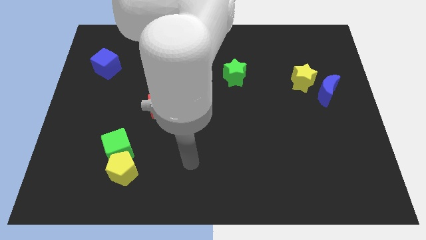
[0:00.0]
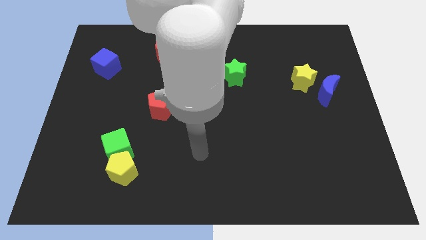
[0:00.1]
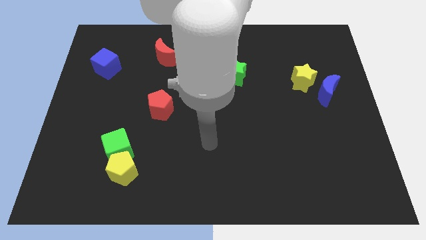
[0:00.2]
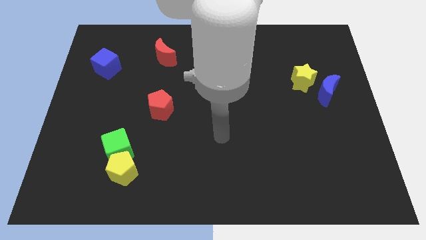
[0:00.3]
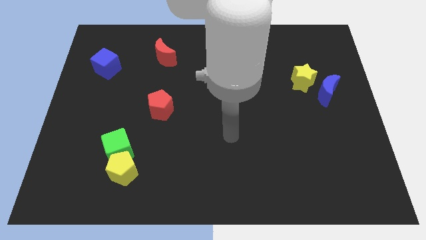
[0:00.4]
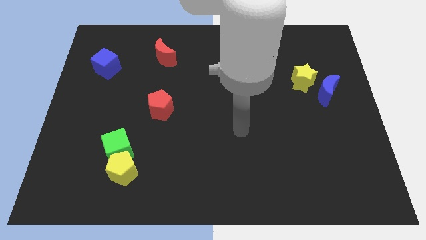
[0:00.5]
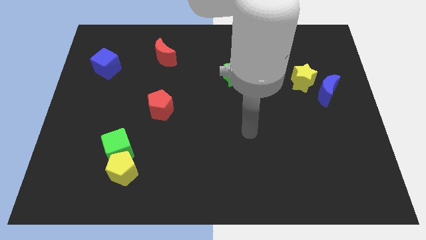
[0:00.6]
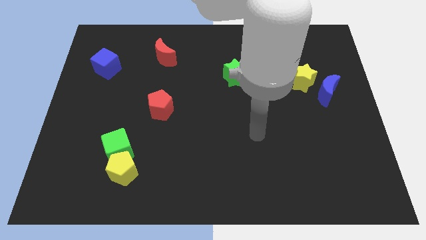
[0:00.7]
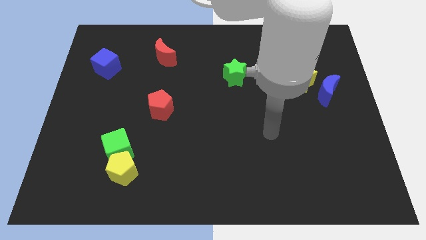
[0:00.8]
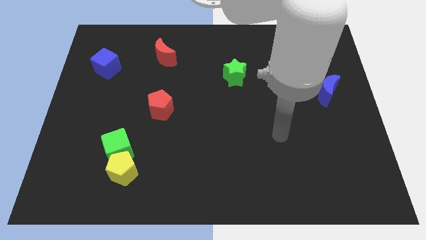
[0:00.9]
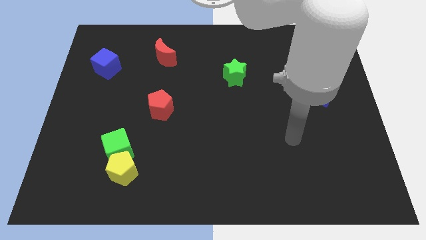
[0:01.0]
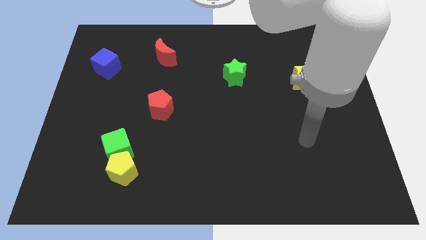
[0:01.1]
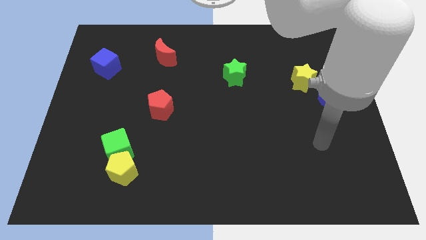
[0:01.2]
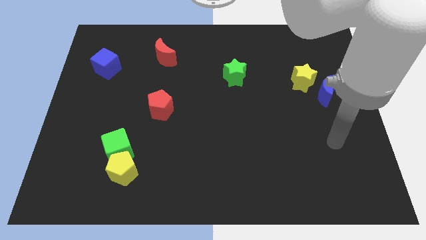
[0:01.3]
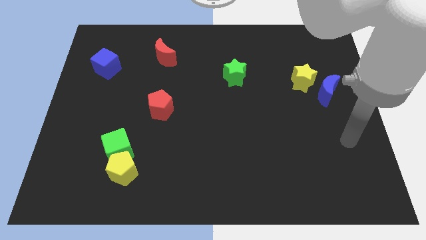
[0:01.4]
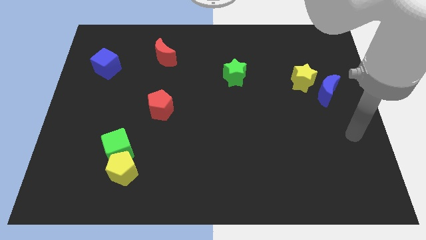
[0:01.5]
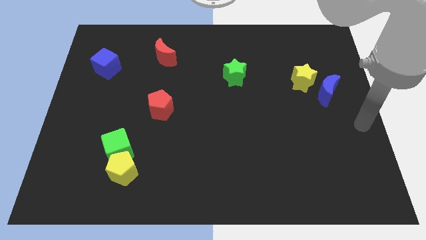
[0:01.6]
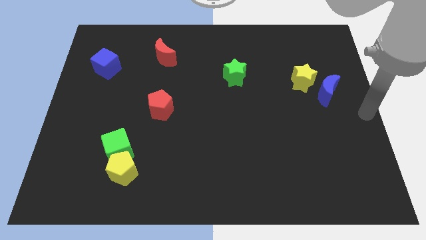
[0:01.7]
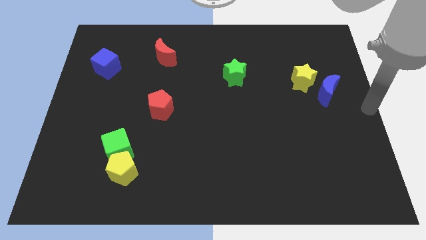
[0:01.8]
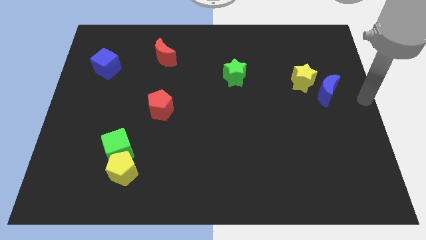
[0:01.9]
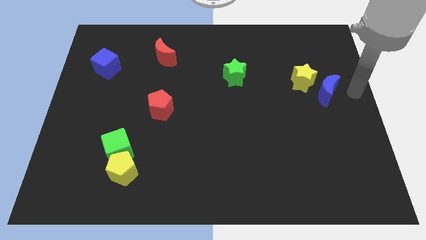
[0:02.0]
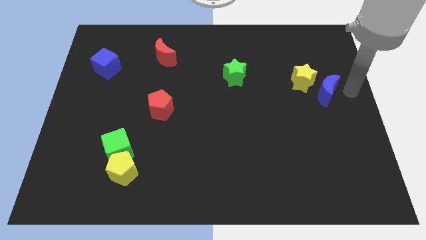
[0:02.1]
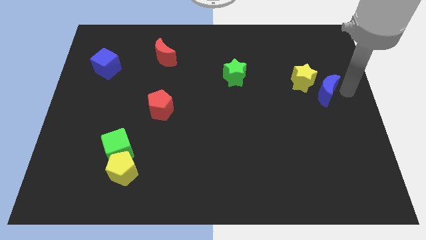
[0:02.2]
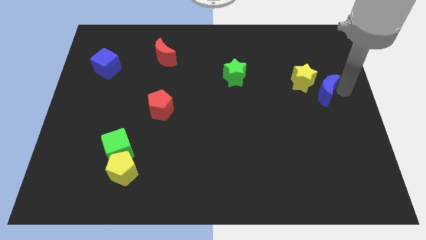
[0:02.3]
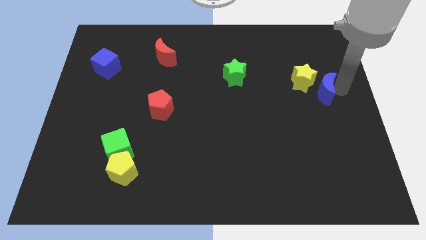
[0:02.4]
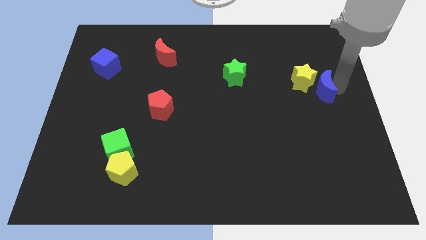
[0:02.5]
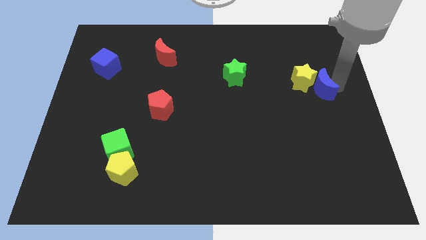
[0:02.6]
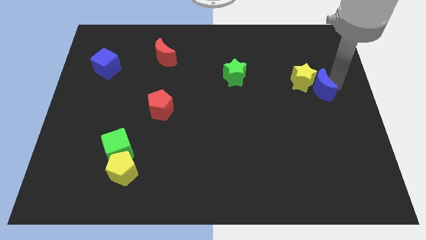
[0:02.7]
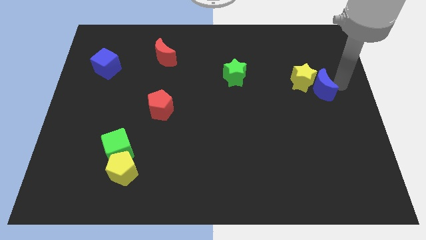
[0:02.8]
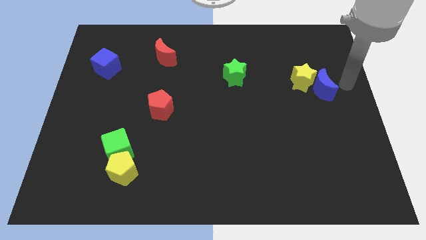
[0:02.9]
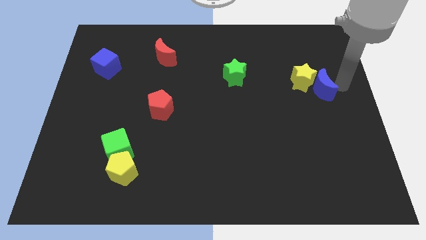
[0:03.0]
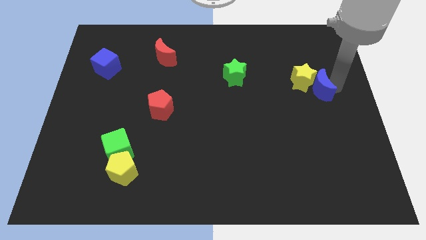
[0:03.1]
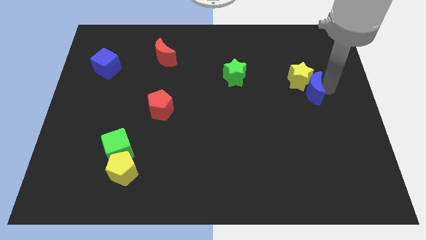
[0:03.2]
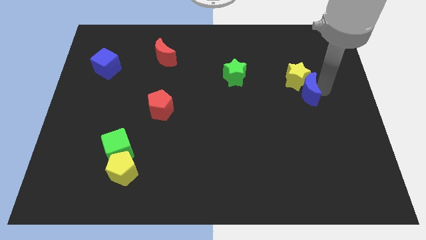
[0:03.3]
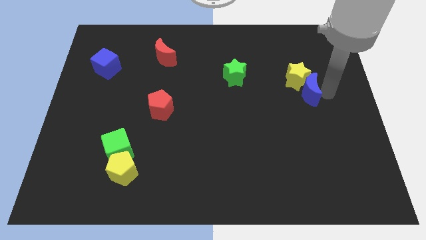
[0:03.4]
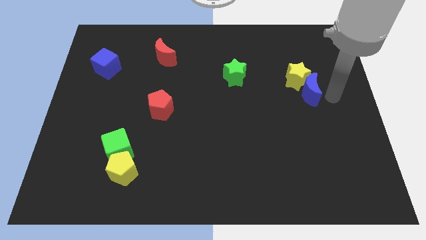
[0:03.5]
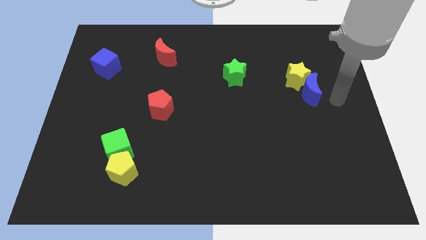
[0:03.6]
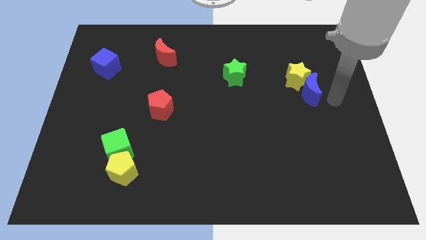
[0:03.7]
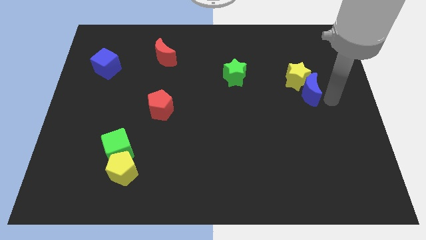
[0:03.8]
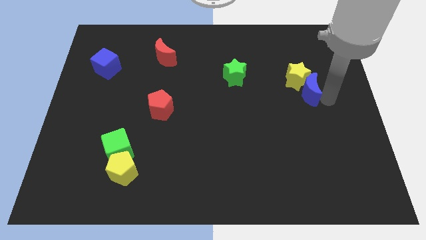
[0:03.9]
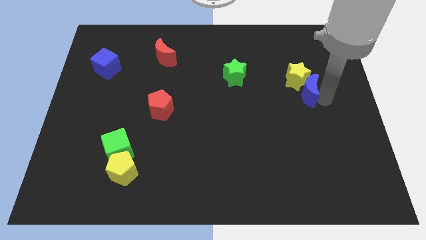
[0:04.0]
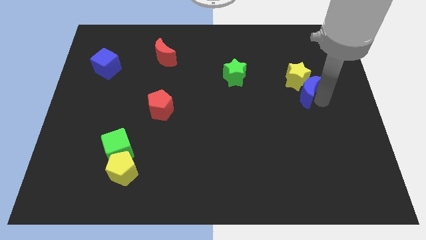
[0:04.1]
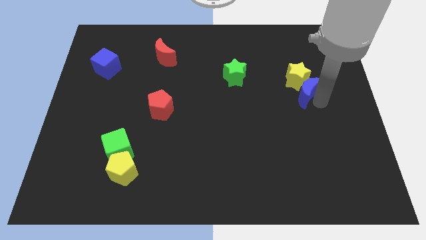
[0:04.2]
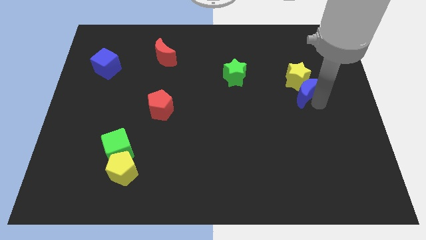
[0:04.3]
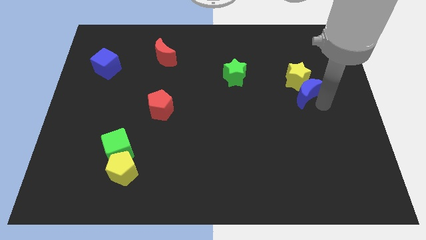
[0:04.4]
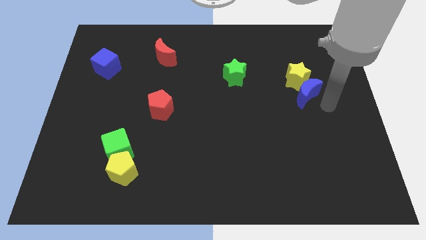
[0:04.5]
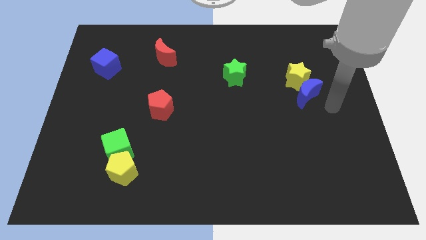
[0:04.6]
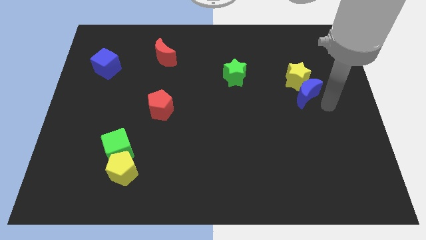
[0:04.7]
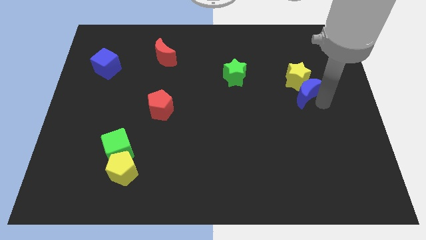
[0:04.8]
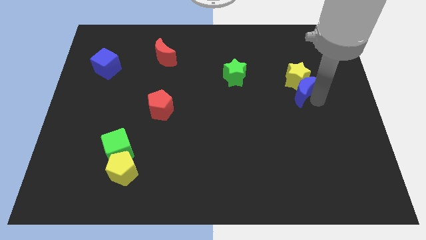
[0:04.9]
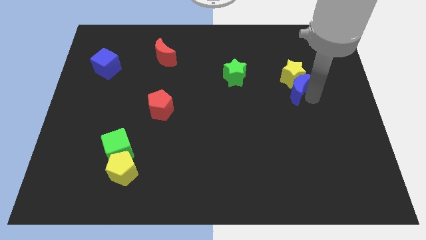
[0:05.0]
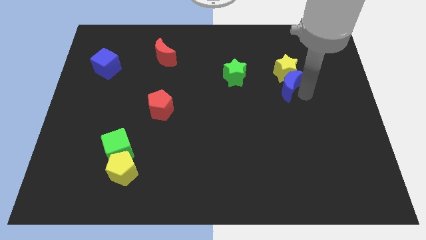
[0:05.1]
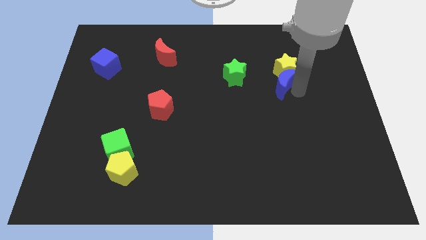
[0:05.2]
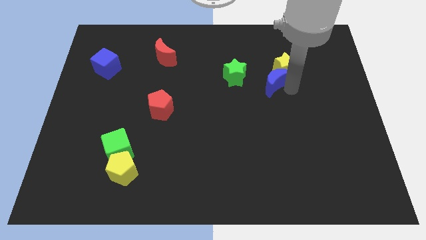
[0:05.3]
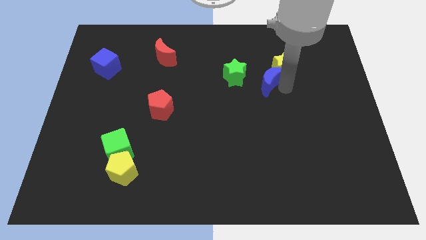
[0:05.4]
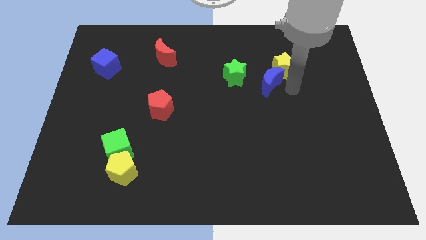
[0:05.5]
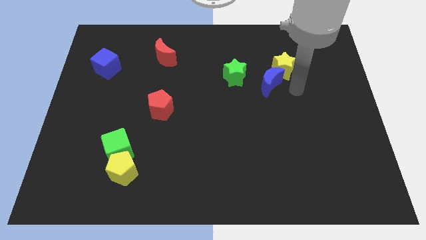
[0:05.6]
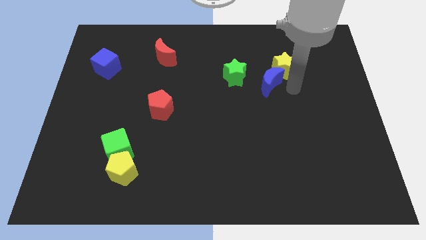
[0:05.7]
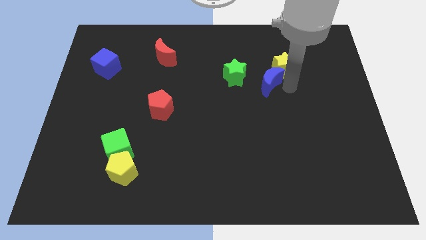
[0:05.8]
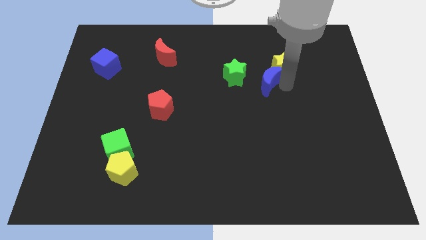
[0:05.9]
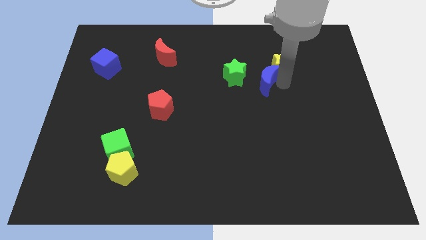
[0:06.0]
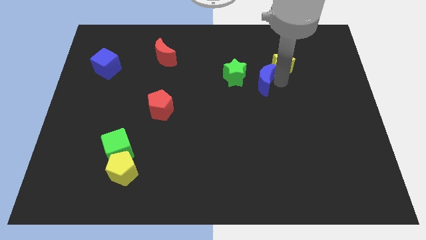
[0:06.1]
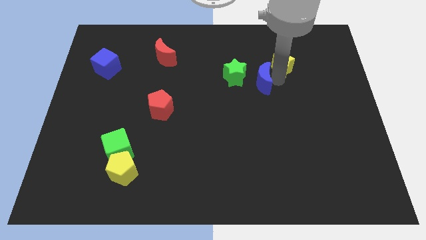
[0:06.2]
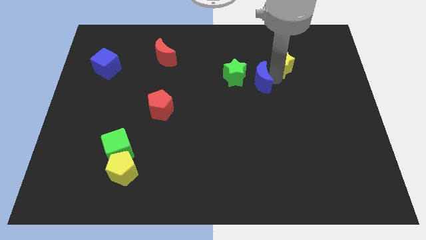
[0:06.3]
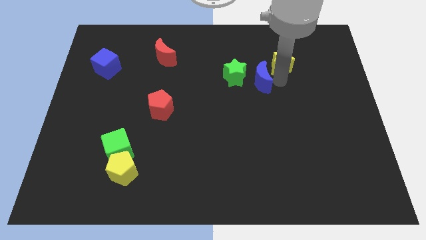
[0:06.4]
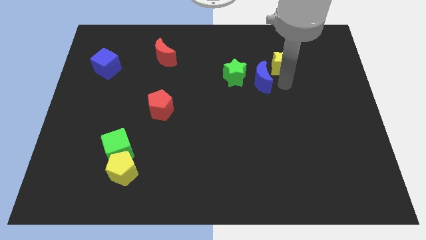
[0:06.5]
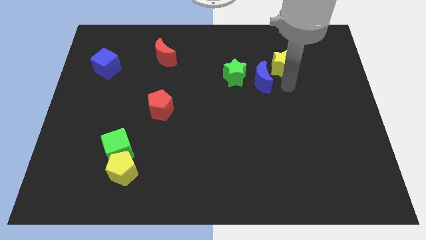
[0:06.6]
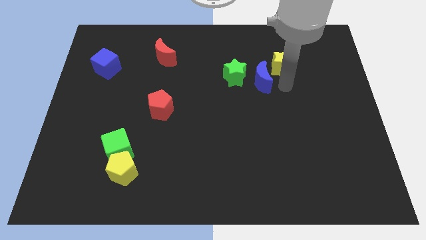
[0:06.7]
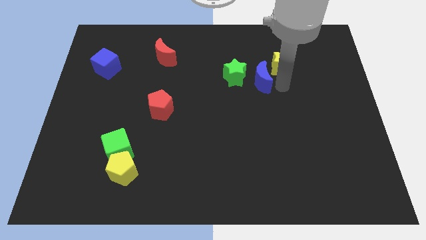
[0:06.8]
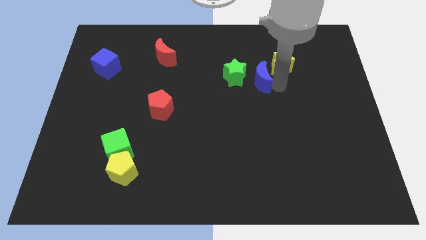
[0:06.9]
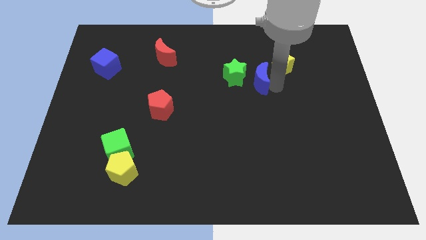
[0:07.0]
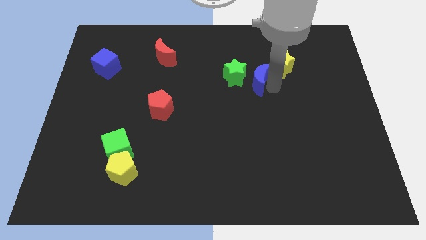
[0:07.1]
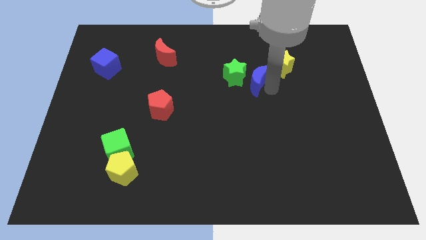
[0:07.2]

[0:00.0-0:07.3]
slide the blue moon to the green star
